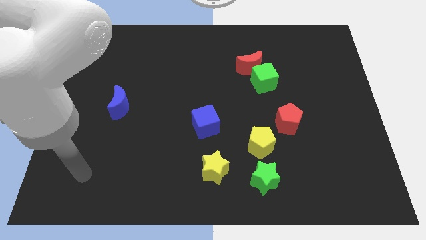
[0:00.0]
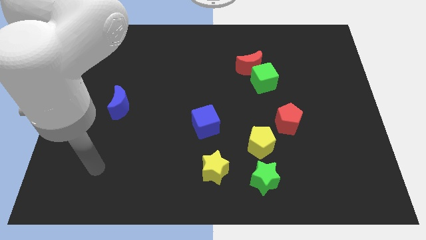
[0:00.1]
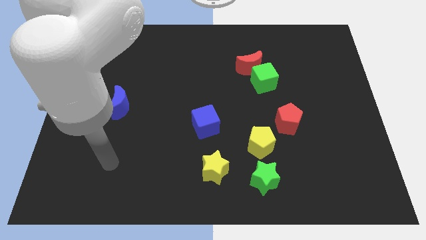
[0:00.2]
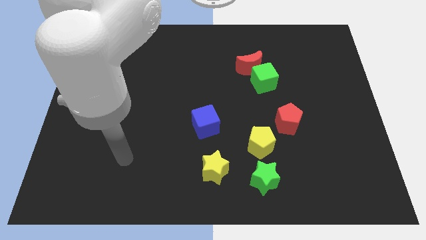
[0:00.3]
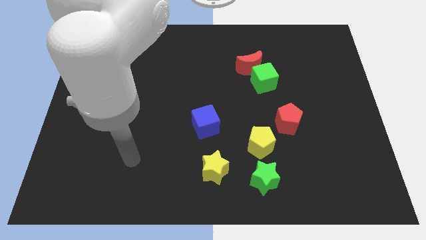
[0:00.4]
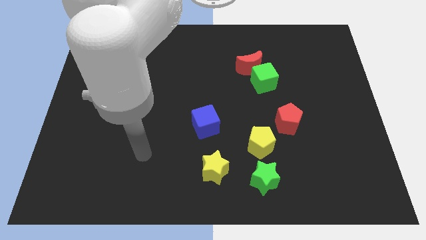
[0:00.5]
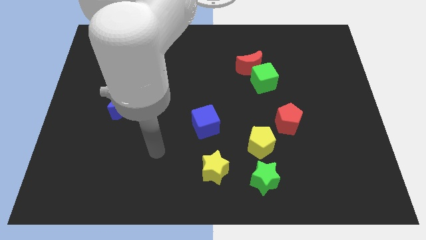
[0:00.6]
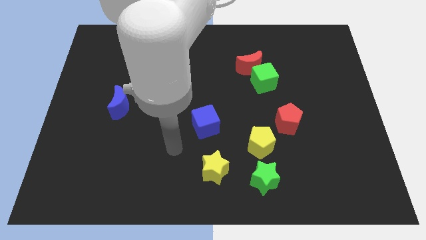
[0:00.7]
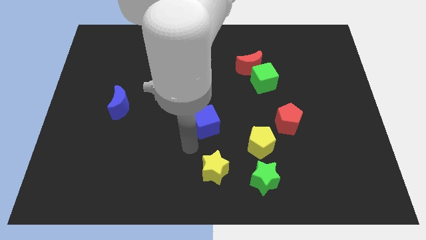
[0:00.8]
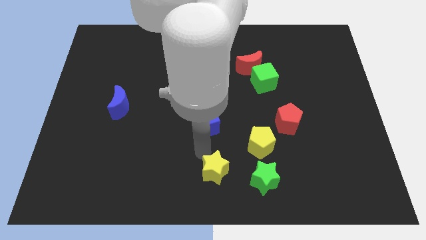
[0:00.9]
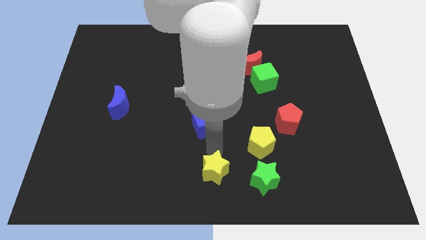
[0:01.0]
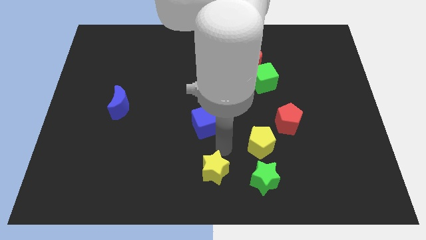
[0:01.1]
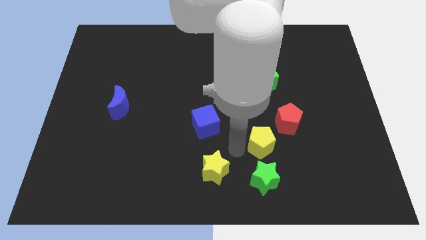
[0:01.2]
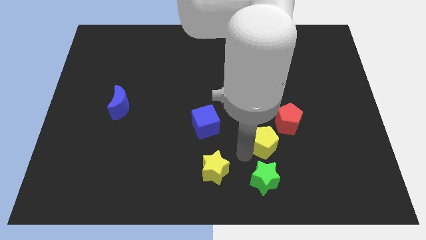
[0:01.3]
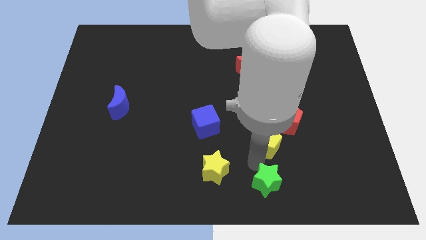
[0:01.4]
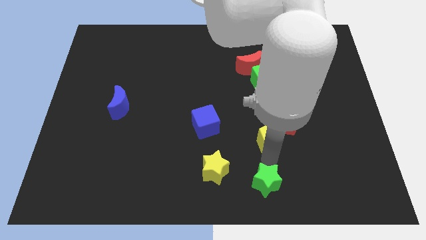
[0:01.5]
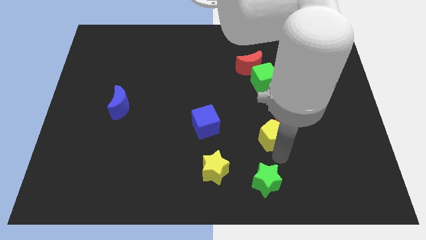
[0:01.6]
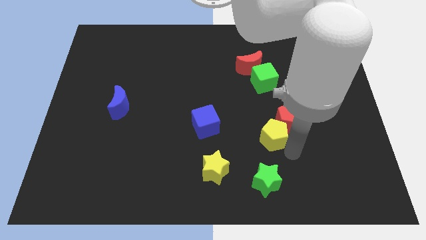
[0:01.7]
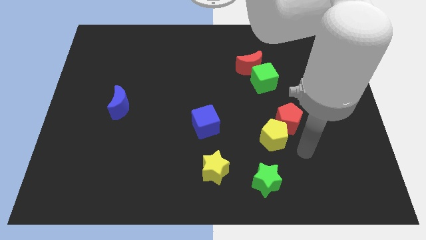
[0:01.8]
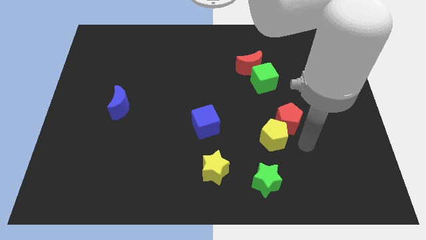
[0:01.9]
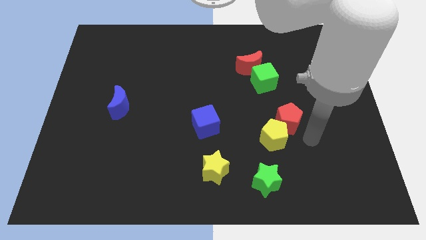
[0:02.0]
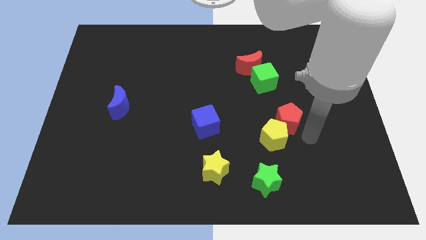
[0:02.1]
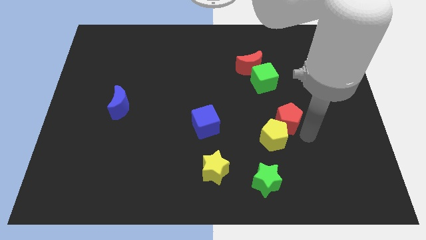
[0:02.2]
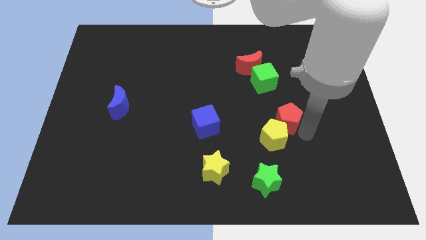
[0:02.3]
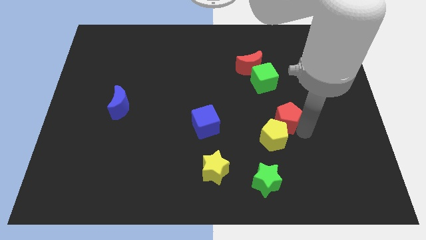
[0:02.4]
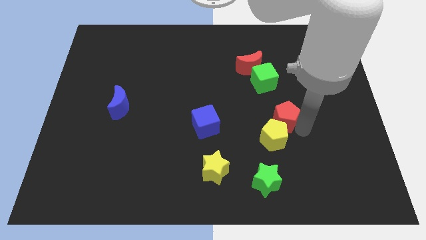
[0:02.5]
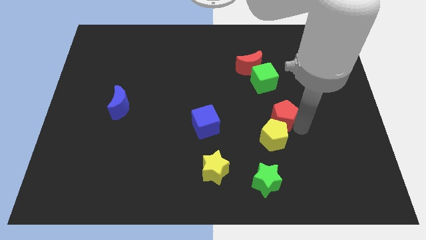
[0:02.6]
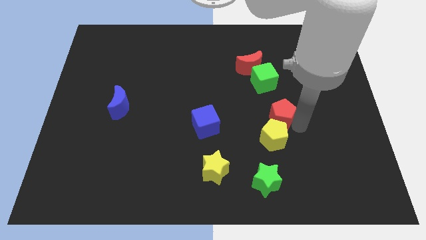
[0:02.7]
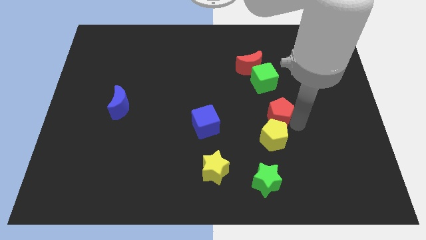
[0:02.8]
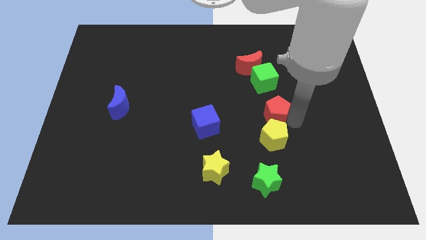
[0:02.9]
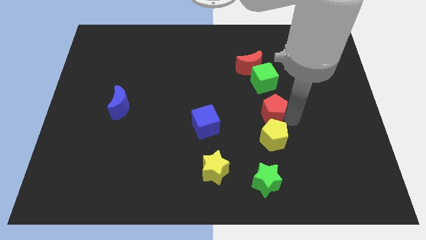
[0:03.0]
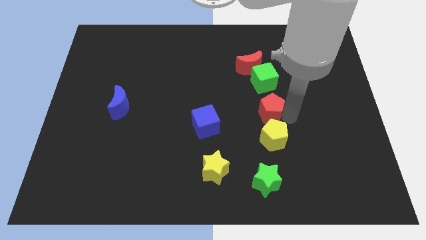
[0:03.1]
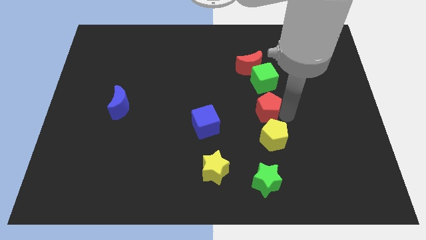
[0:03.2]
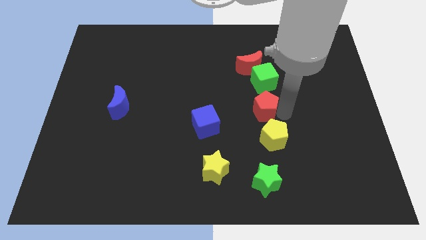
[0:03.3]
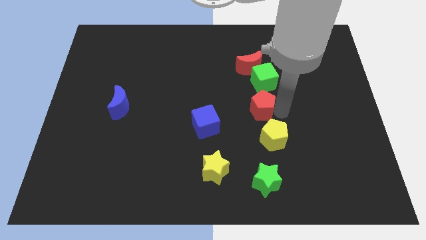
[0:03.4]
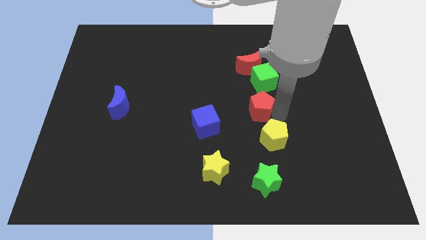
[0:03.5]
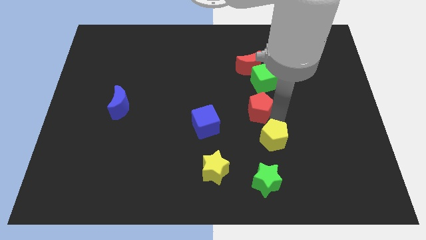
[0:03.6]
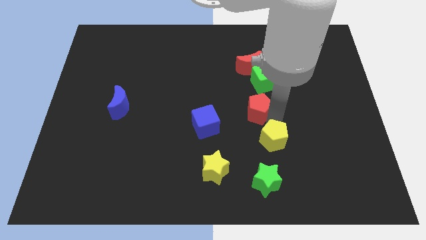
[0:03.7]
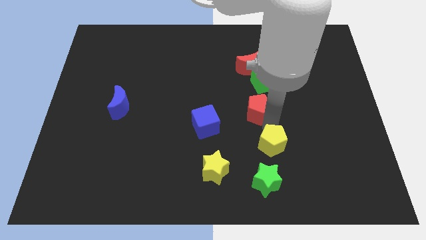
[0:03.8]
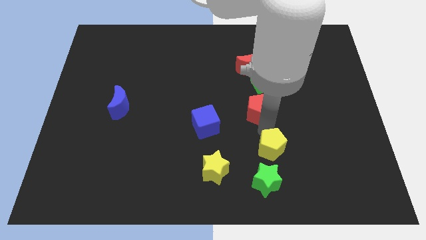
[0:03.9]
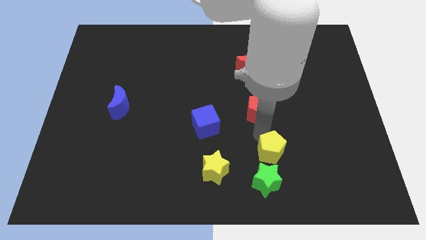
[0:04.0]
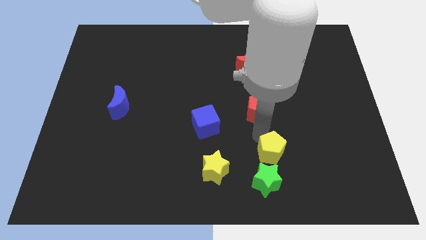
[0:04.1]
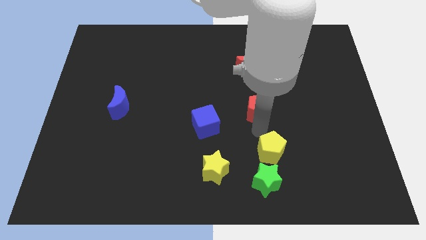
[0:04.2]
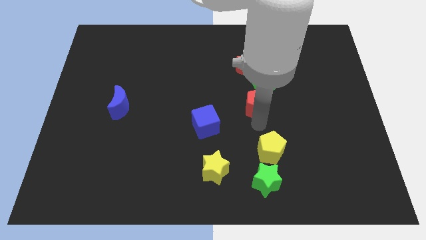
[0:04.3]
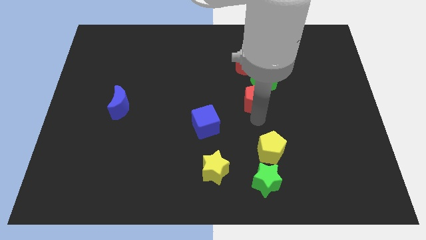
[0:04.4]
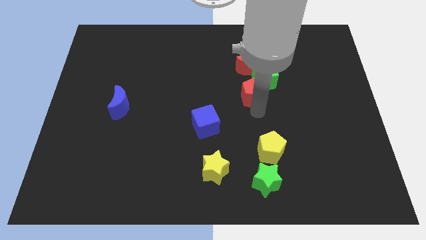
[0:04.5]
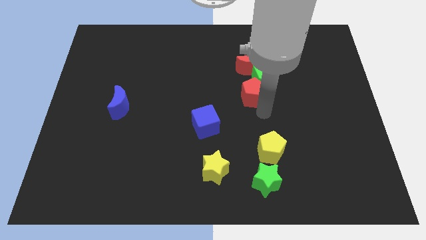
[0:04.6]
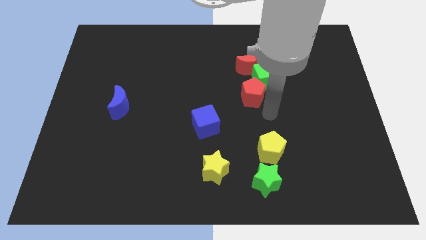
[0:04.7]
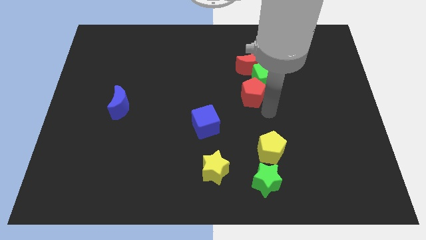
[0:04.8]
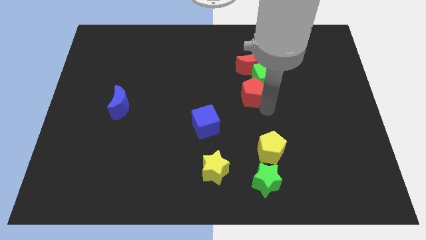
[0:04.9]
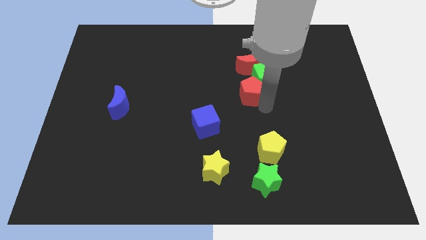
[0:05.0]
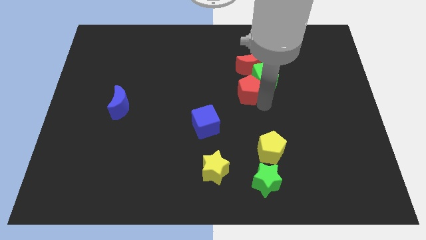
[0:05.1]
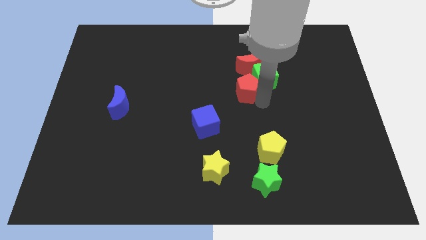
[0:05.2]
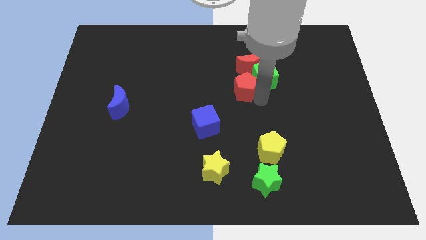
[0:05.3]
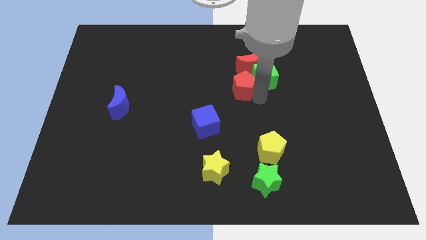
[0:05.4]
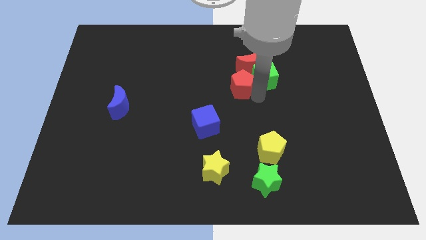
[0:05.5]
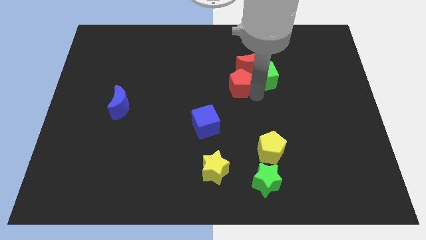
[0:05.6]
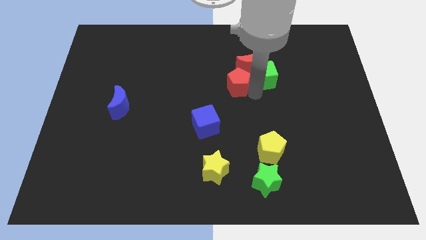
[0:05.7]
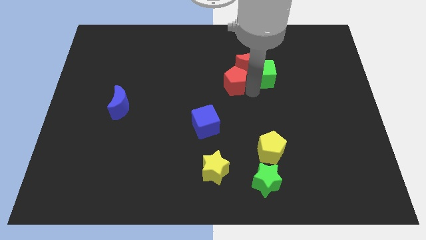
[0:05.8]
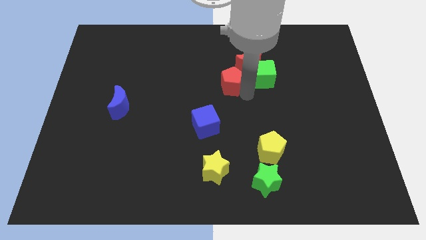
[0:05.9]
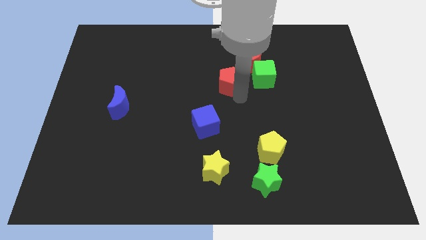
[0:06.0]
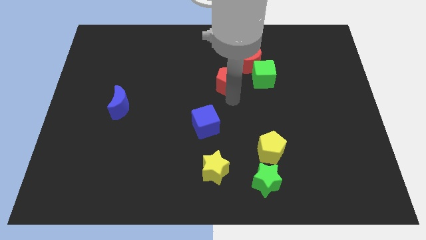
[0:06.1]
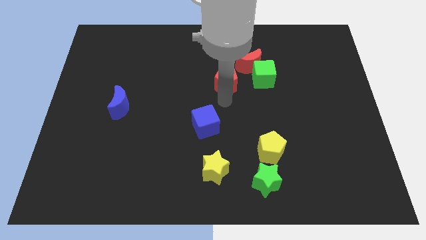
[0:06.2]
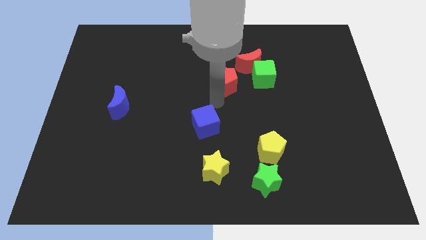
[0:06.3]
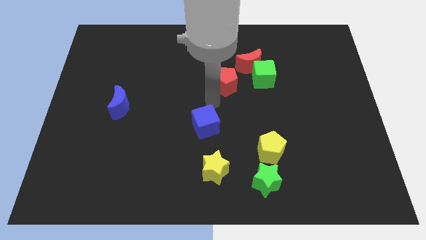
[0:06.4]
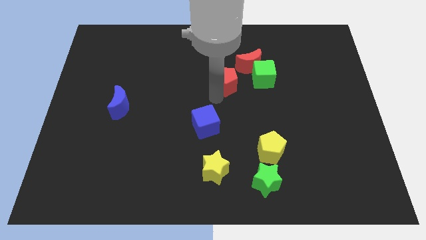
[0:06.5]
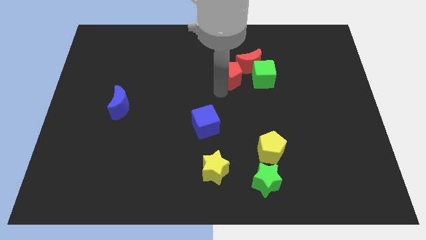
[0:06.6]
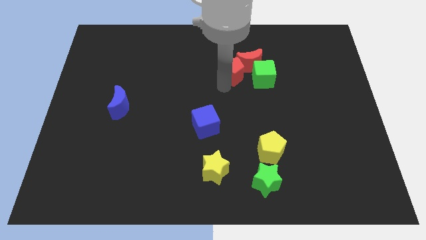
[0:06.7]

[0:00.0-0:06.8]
slide the red pentagon to the top left of the green cube
